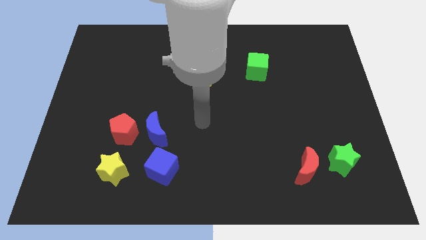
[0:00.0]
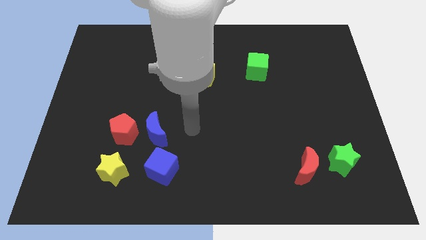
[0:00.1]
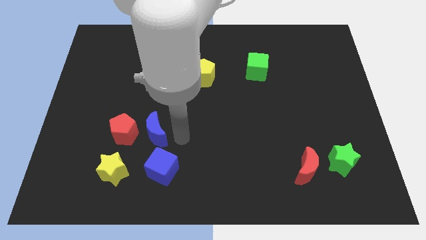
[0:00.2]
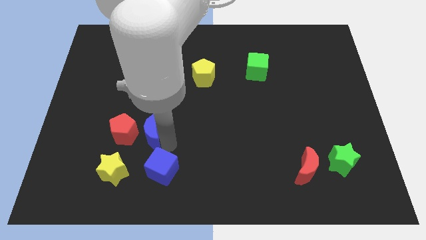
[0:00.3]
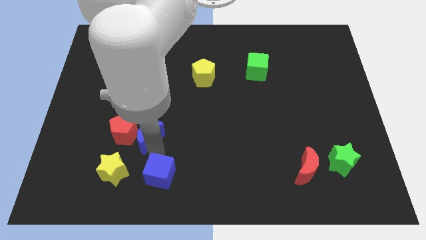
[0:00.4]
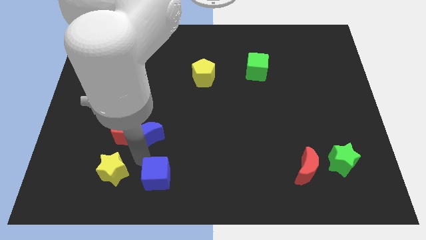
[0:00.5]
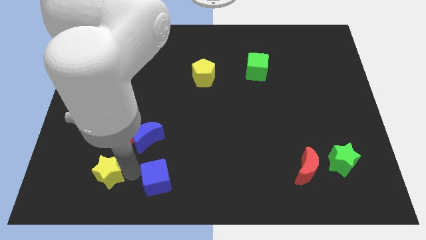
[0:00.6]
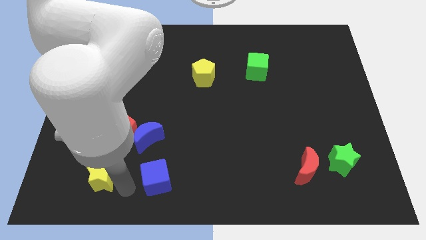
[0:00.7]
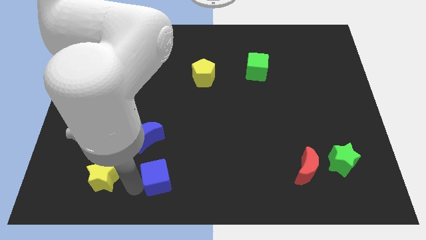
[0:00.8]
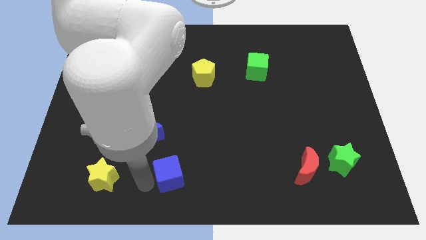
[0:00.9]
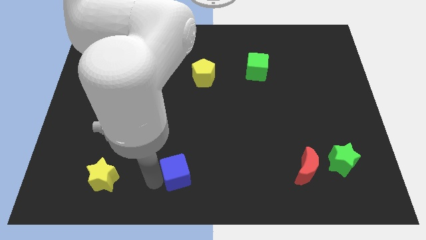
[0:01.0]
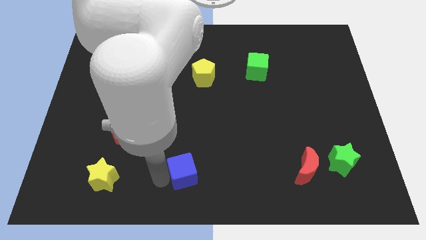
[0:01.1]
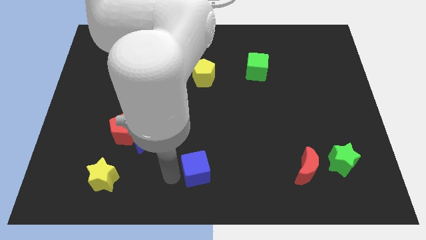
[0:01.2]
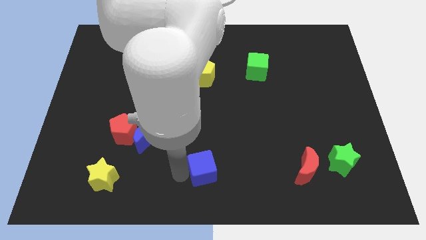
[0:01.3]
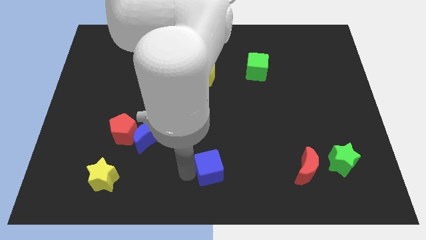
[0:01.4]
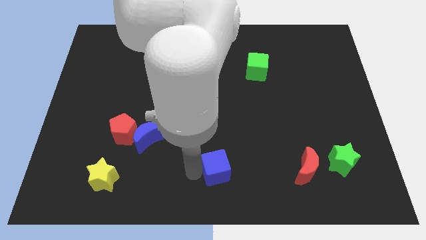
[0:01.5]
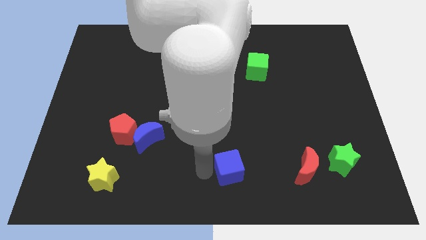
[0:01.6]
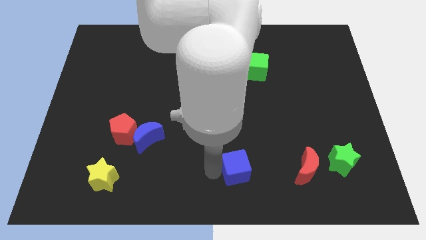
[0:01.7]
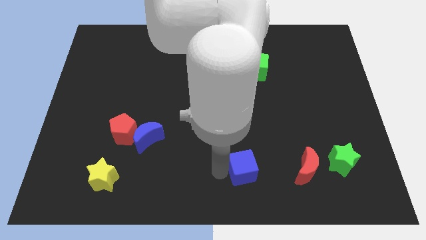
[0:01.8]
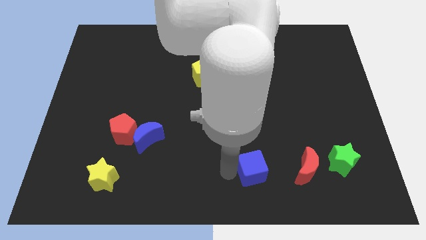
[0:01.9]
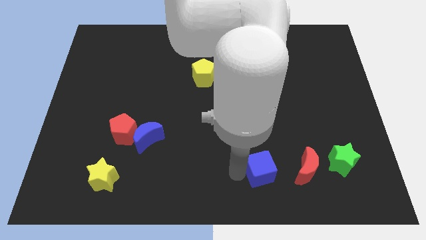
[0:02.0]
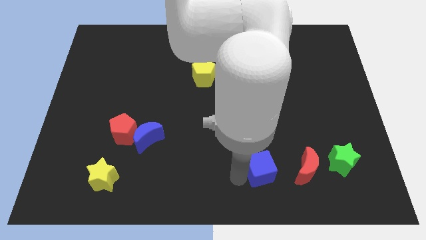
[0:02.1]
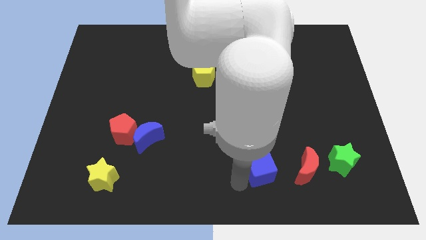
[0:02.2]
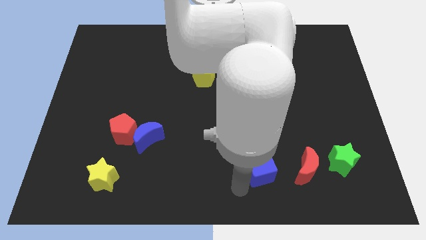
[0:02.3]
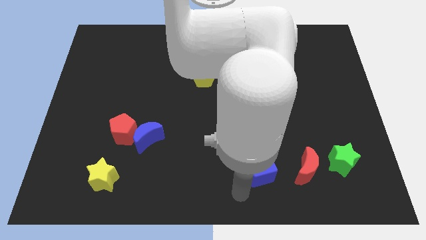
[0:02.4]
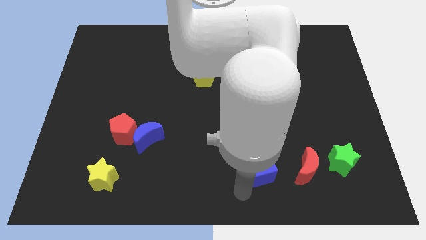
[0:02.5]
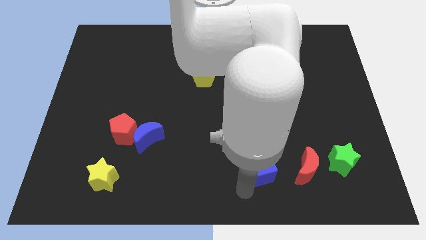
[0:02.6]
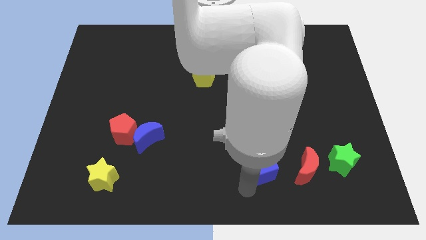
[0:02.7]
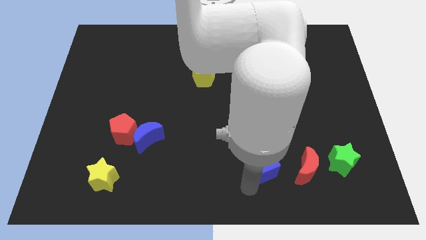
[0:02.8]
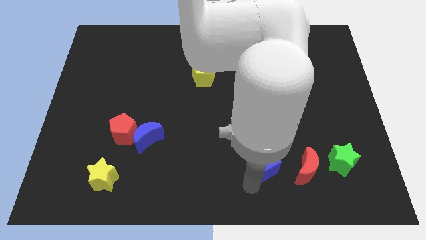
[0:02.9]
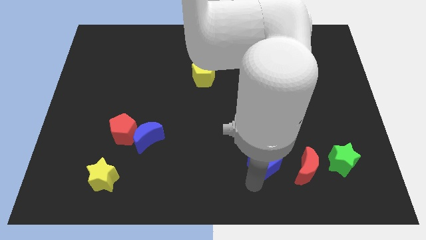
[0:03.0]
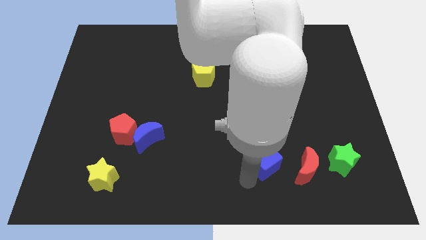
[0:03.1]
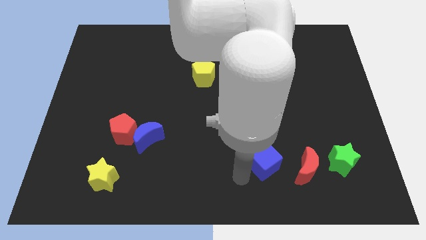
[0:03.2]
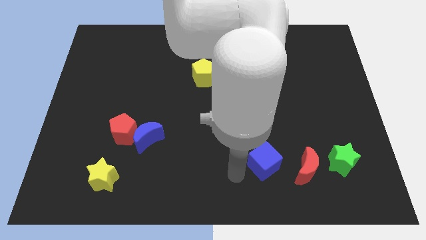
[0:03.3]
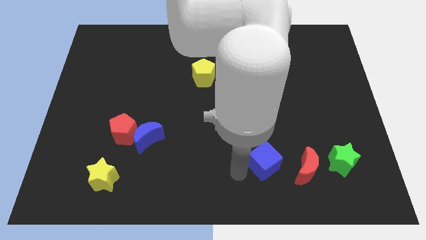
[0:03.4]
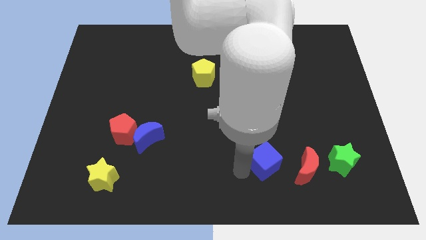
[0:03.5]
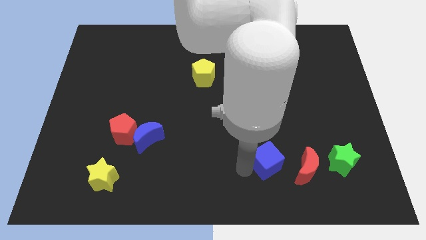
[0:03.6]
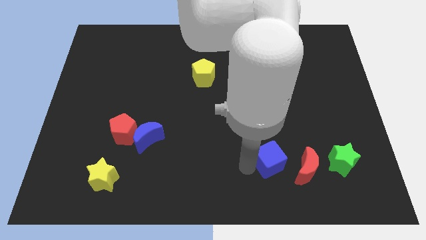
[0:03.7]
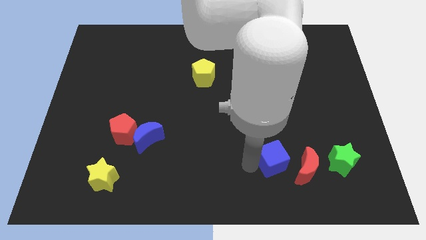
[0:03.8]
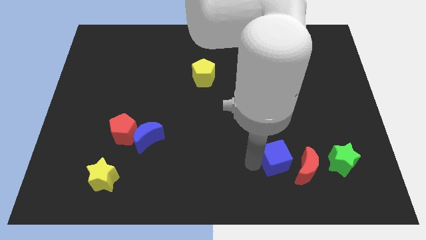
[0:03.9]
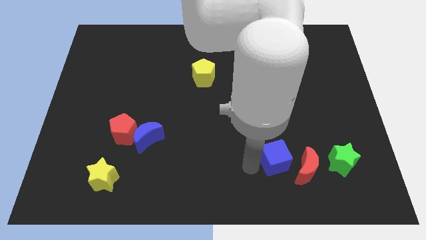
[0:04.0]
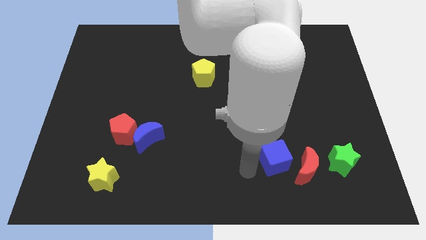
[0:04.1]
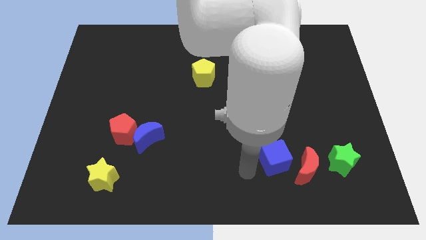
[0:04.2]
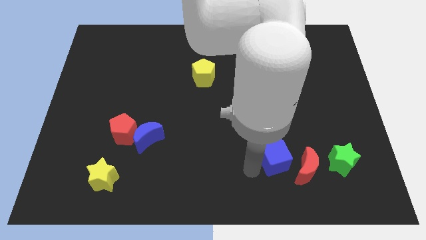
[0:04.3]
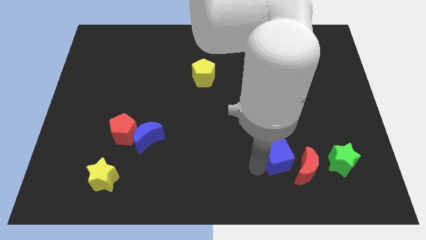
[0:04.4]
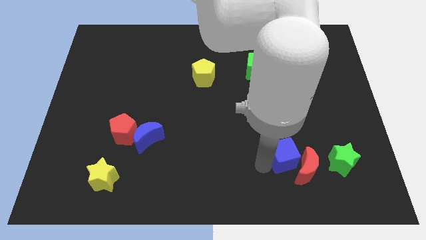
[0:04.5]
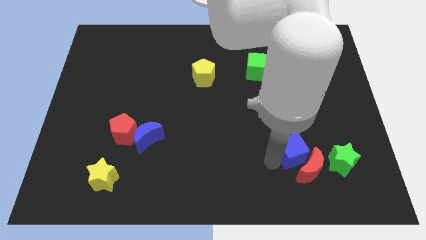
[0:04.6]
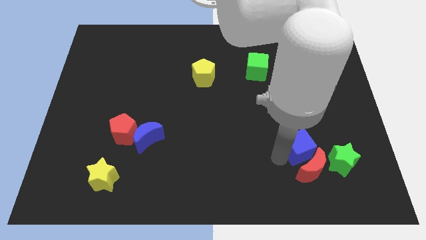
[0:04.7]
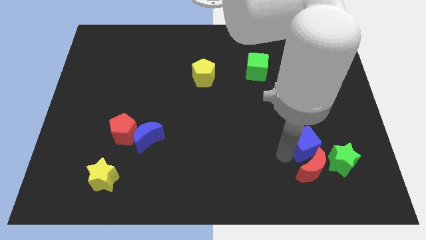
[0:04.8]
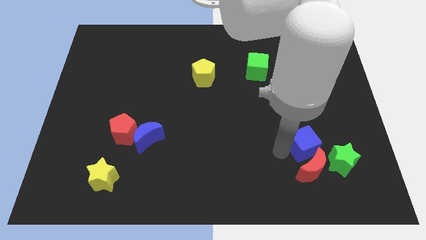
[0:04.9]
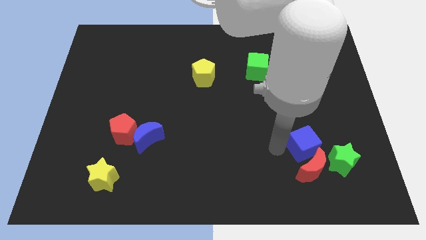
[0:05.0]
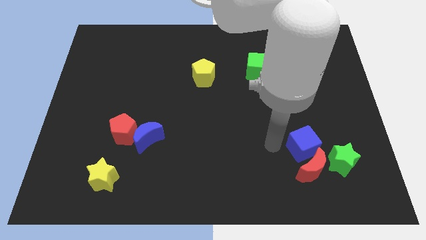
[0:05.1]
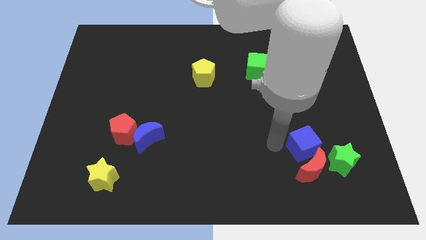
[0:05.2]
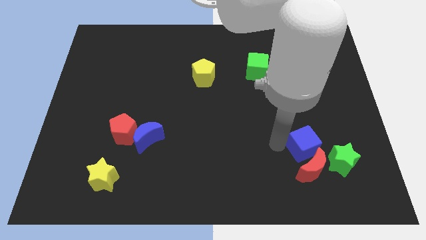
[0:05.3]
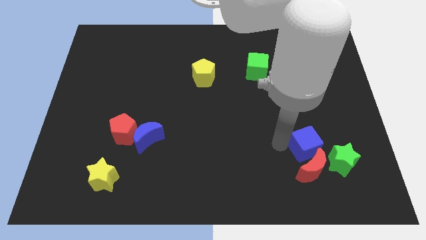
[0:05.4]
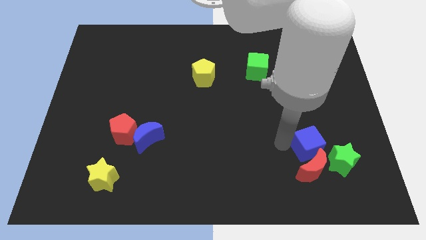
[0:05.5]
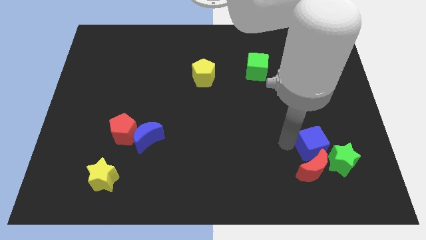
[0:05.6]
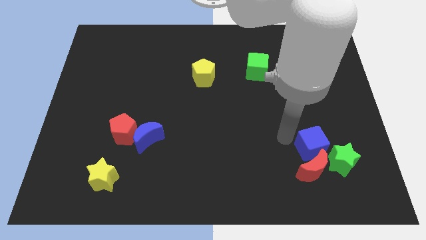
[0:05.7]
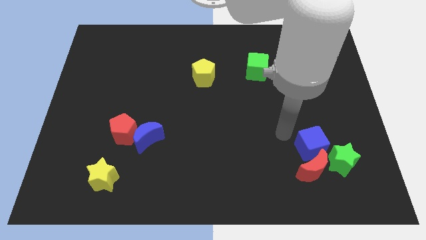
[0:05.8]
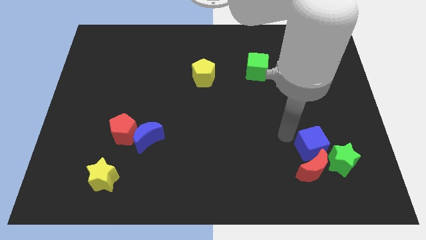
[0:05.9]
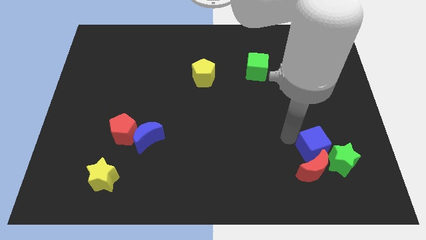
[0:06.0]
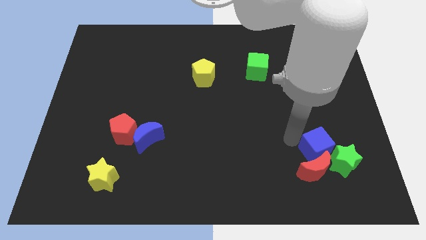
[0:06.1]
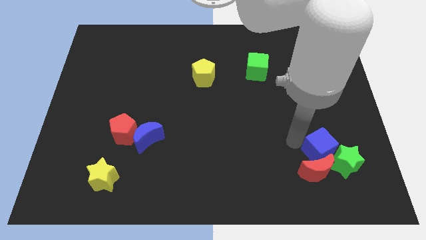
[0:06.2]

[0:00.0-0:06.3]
move the blue cube to the green star

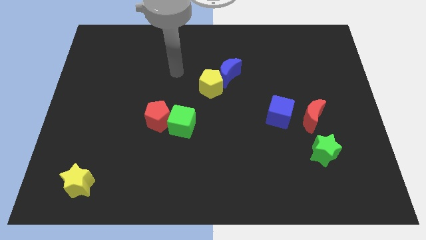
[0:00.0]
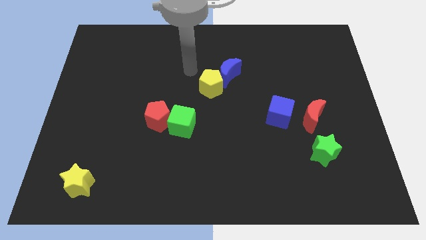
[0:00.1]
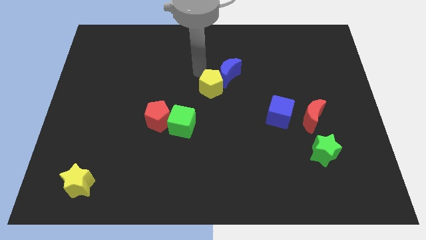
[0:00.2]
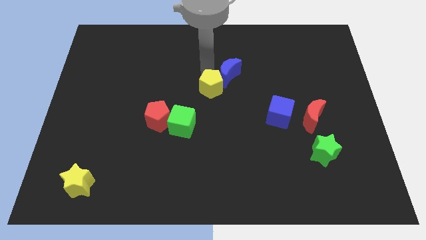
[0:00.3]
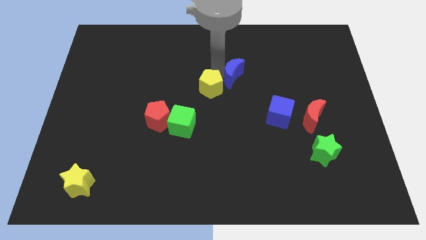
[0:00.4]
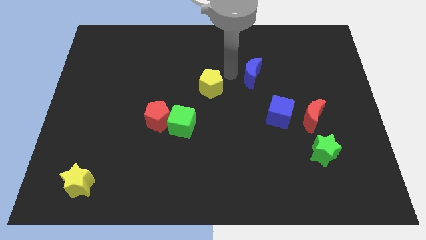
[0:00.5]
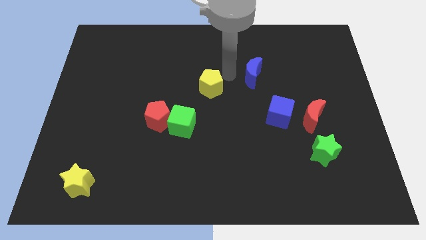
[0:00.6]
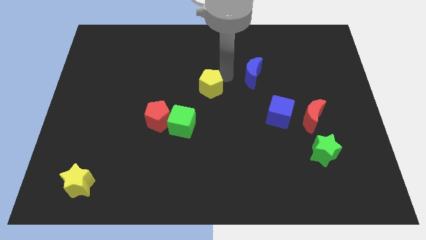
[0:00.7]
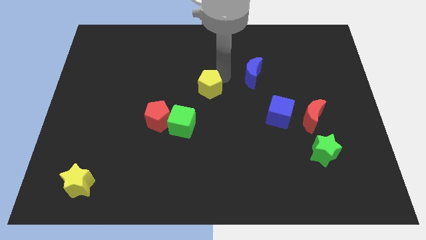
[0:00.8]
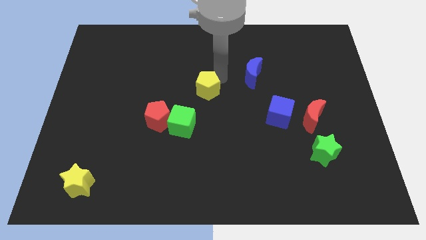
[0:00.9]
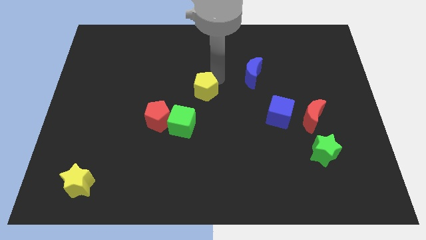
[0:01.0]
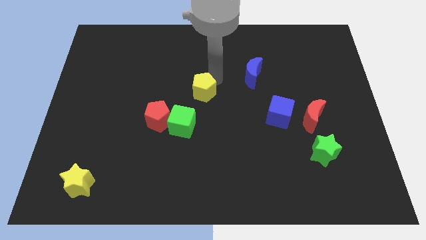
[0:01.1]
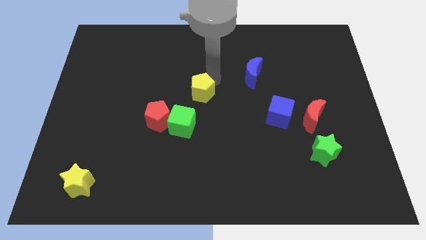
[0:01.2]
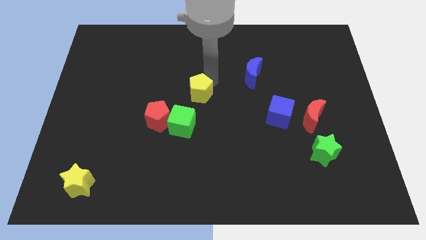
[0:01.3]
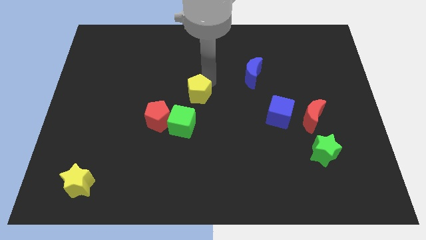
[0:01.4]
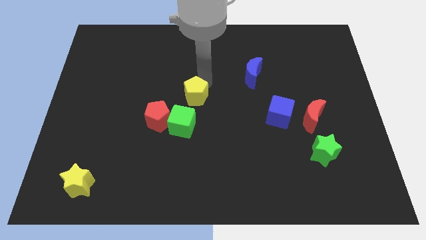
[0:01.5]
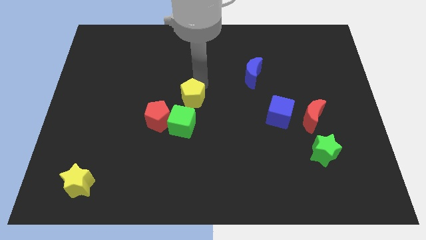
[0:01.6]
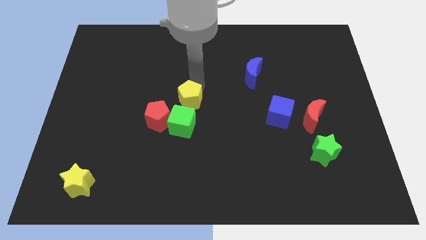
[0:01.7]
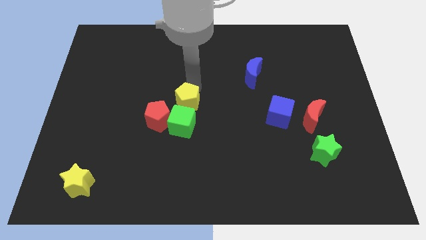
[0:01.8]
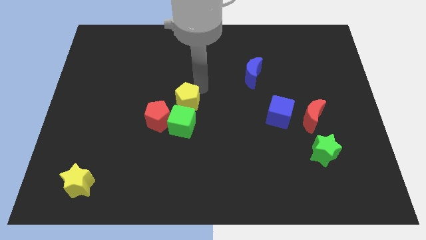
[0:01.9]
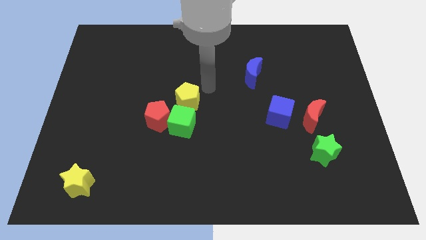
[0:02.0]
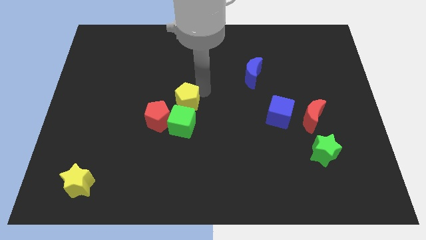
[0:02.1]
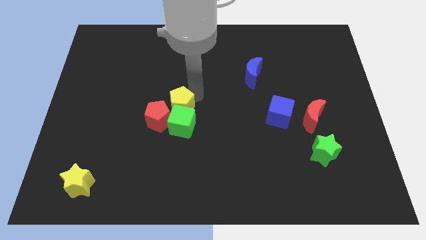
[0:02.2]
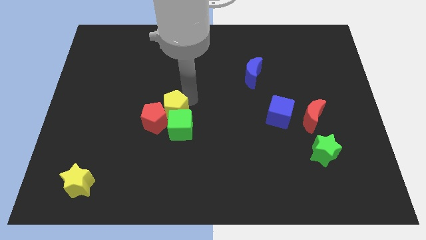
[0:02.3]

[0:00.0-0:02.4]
put the yellow pentagon next to the red pentagon
